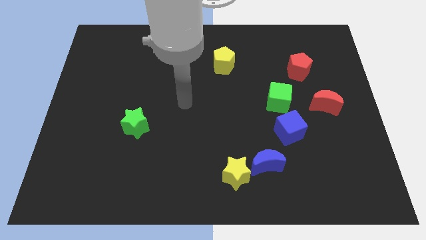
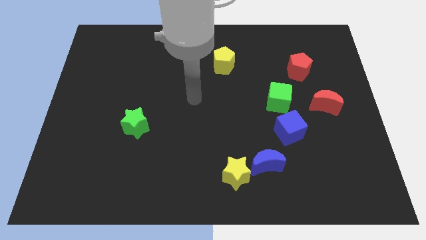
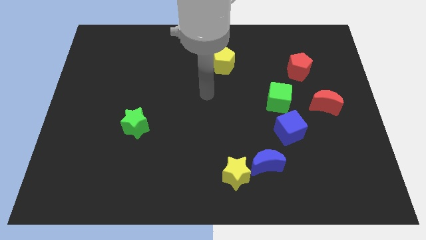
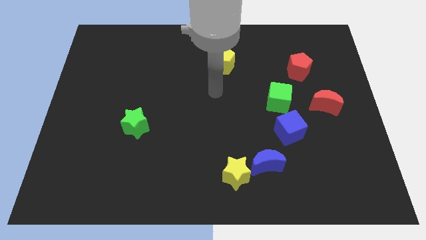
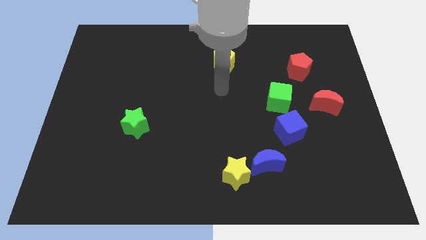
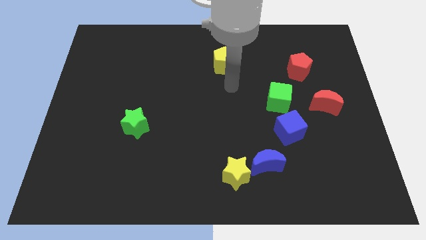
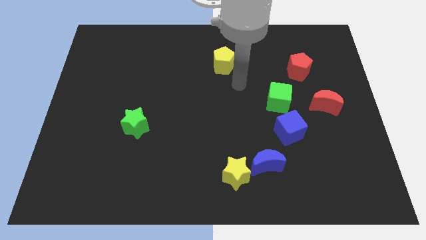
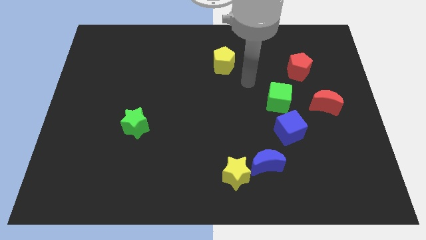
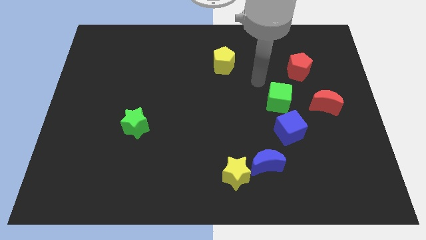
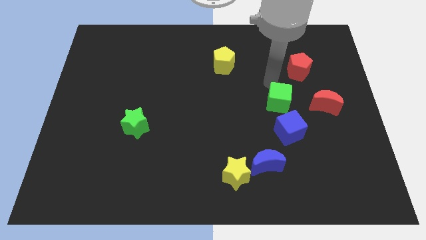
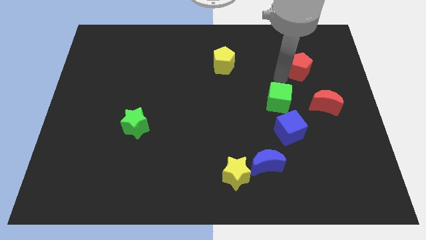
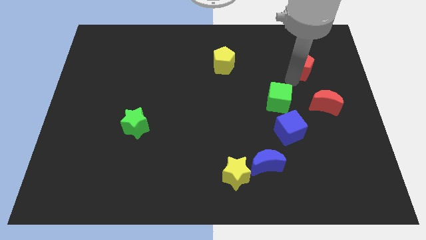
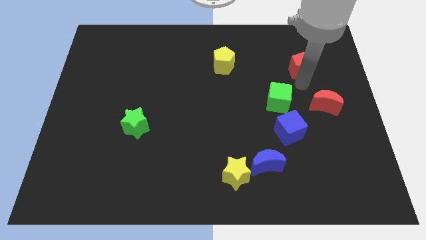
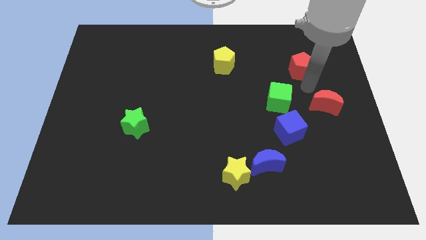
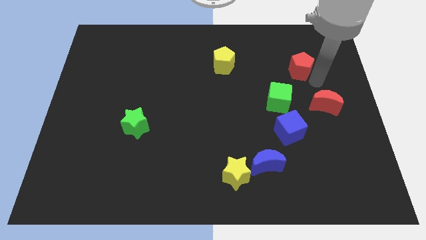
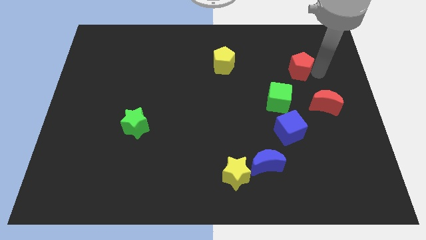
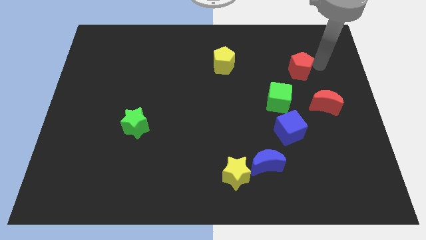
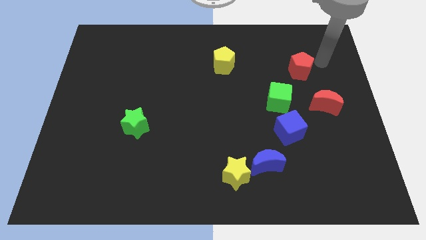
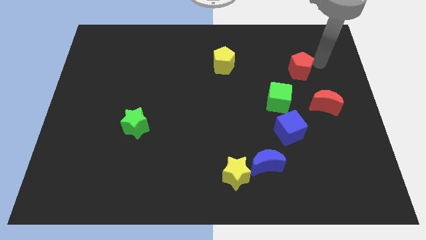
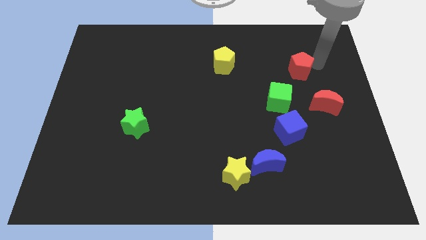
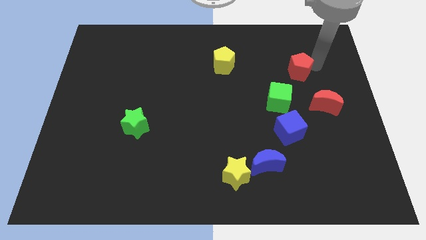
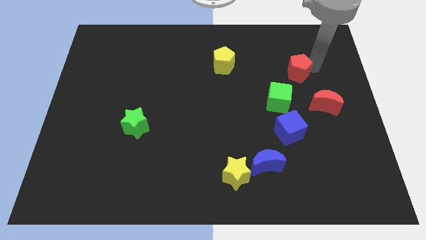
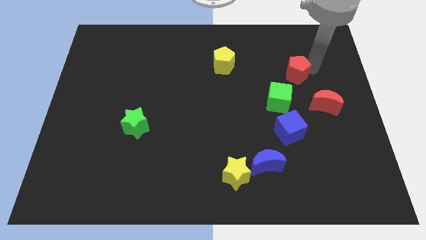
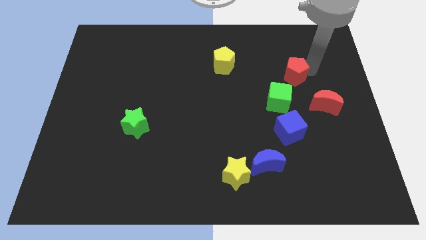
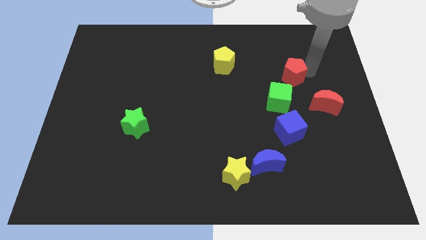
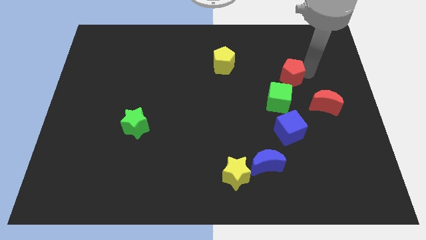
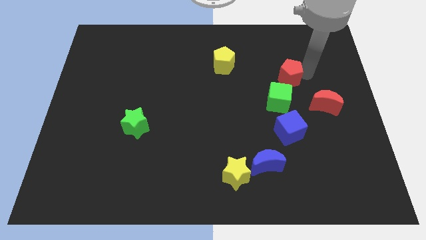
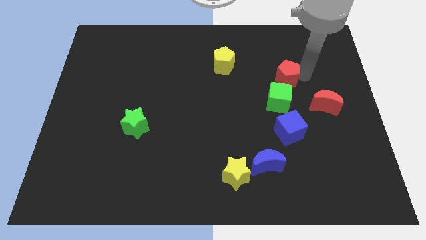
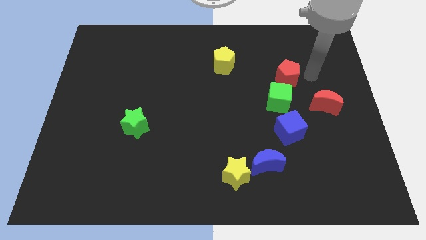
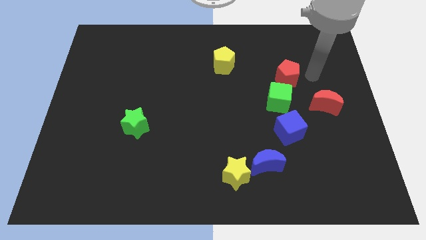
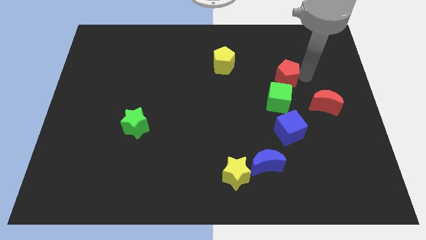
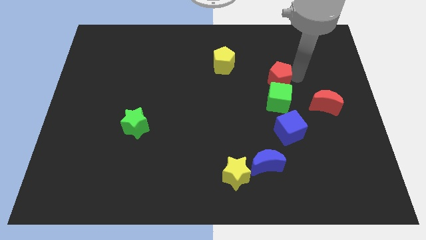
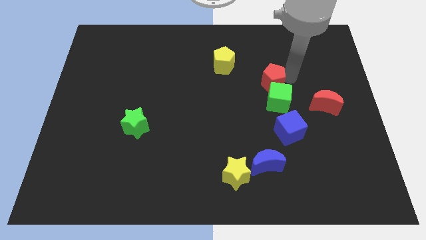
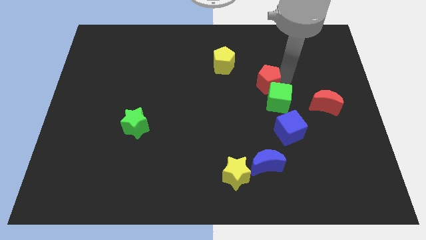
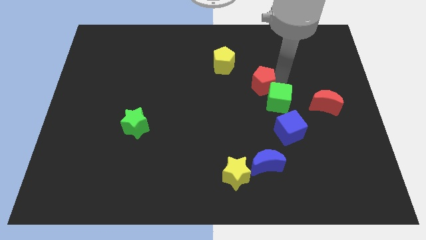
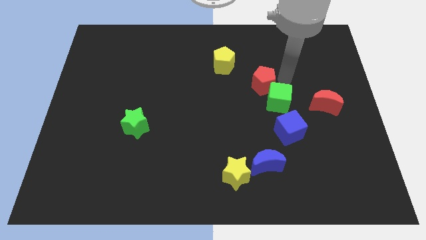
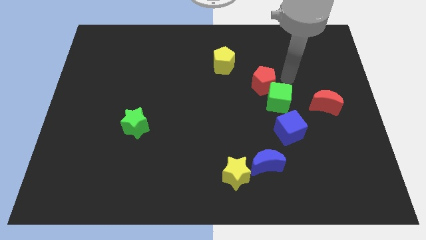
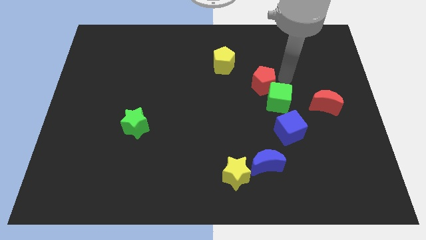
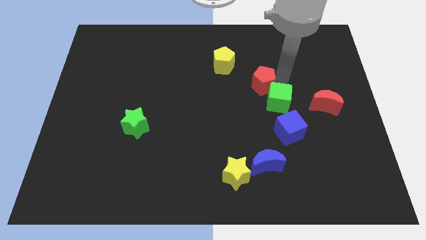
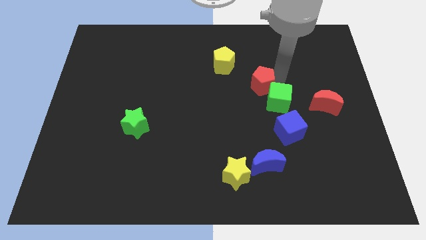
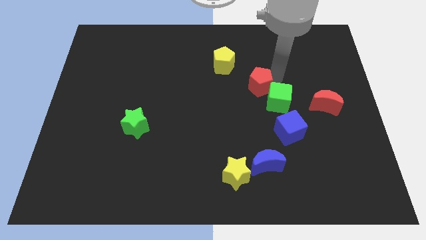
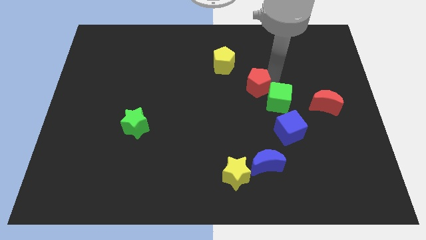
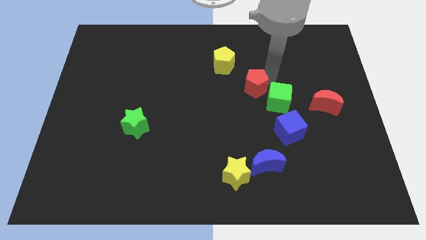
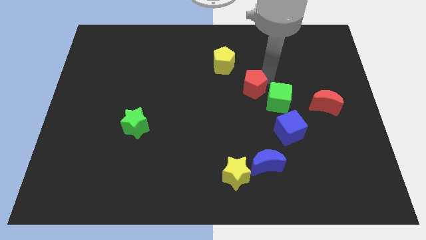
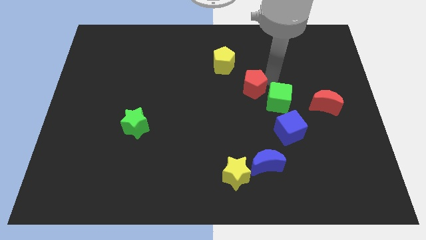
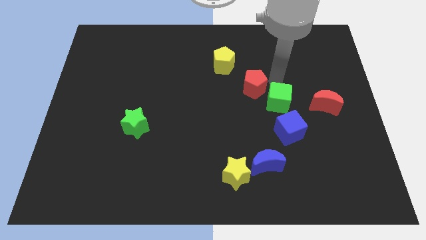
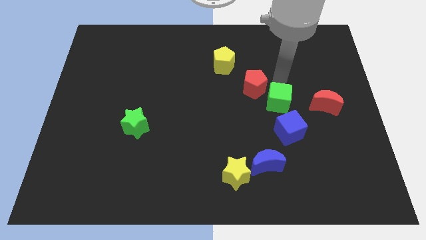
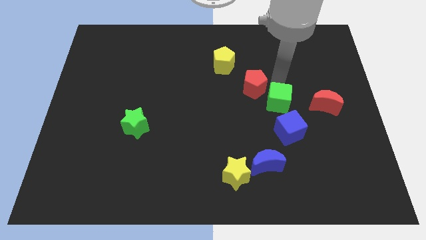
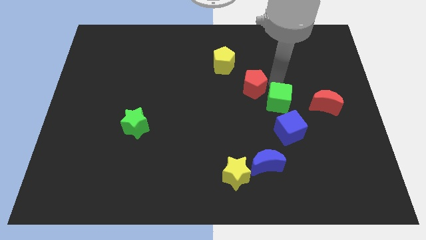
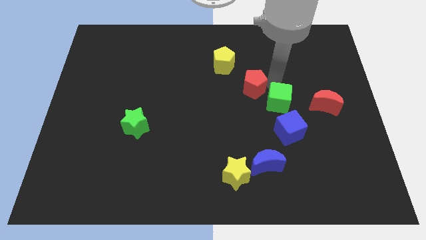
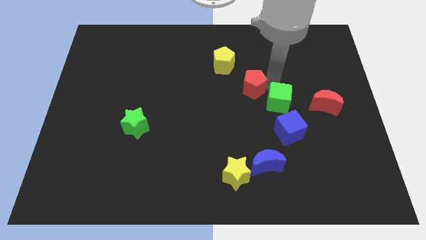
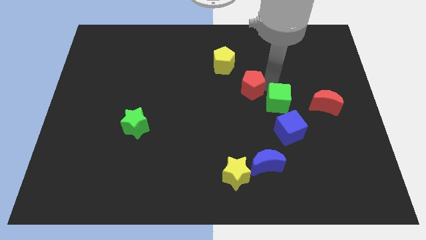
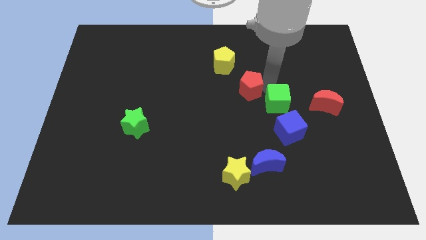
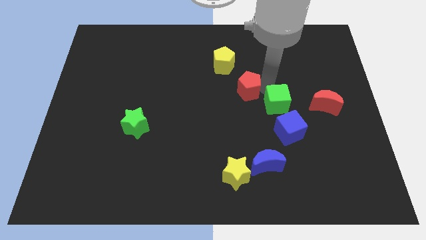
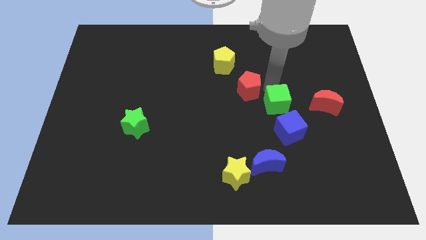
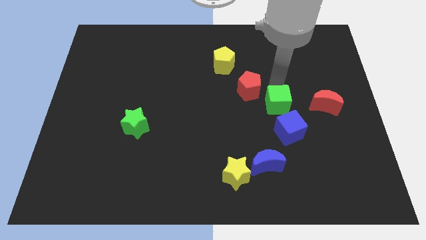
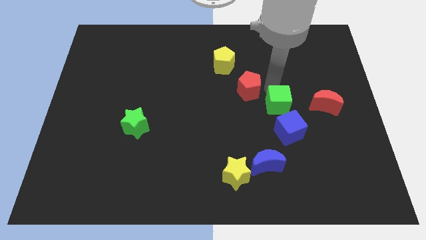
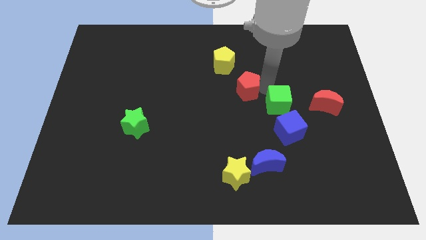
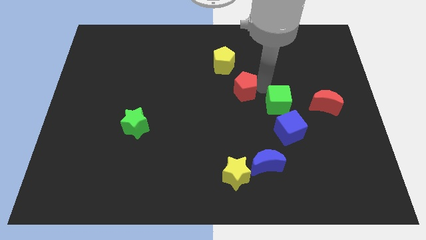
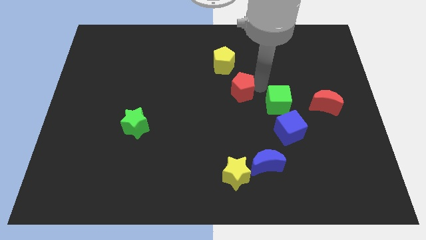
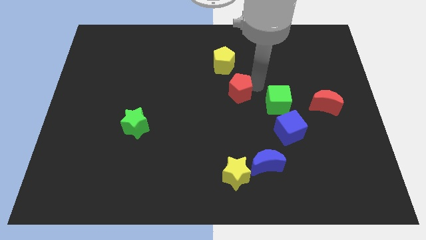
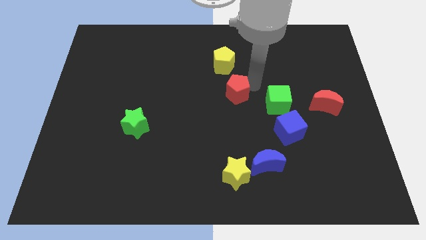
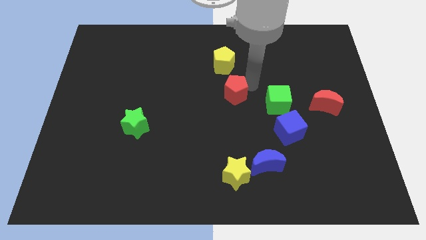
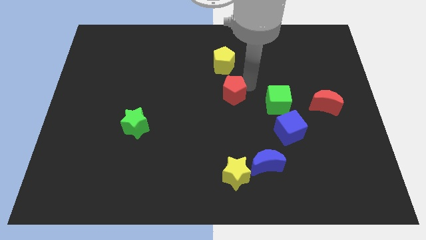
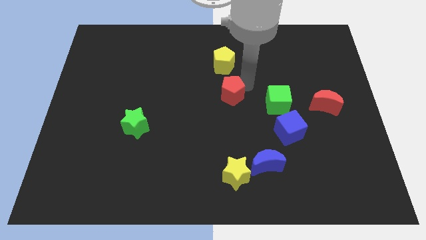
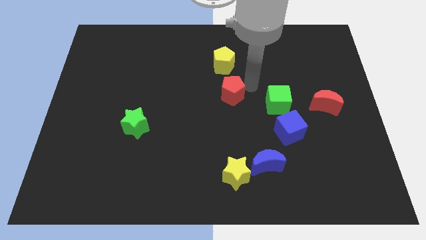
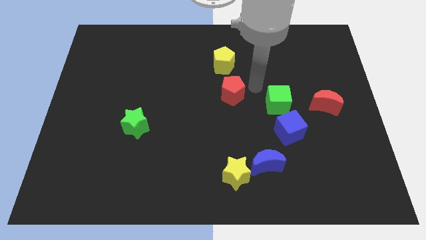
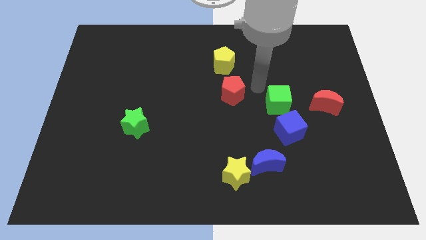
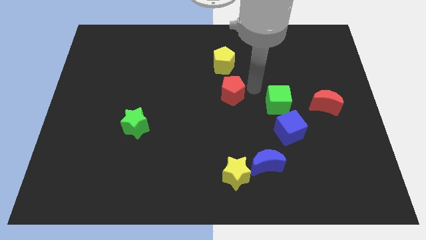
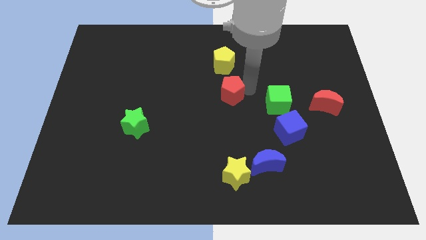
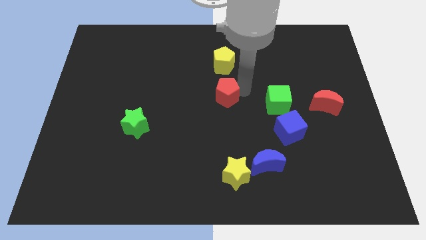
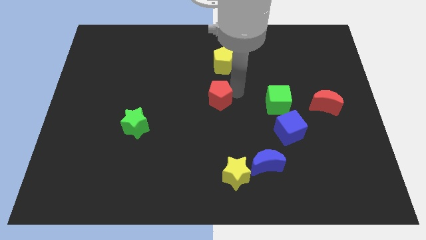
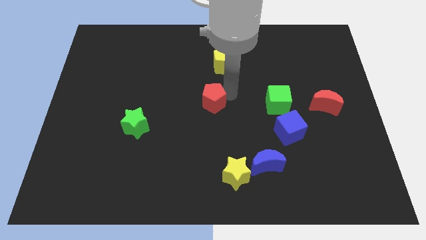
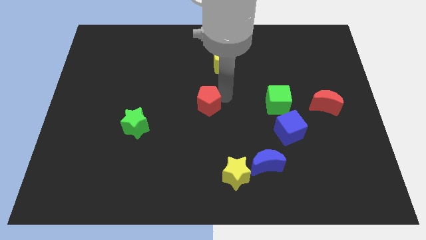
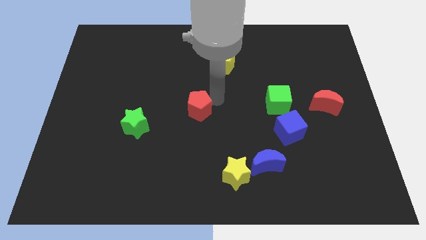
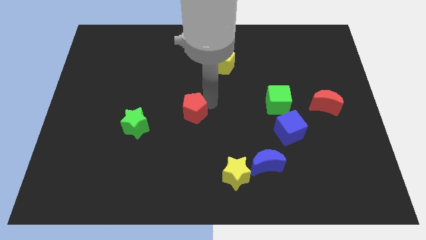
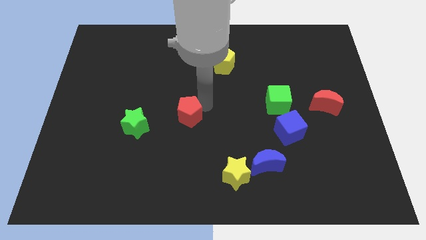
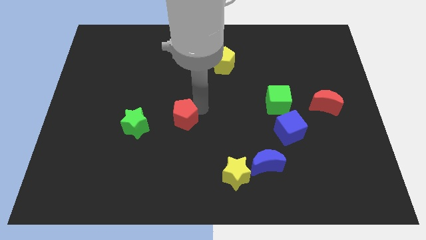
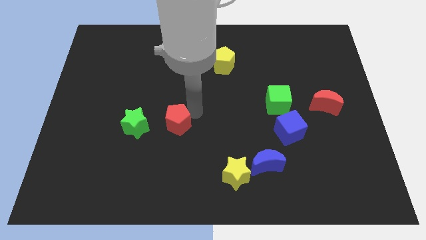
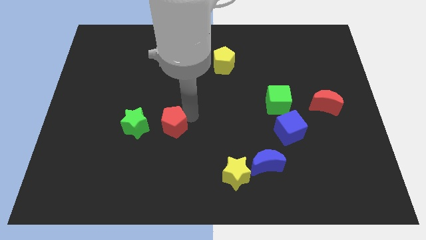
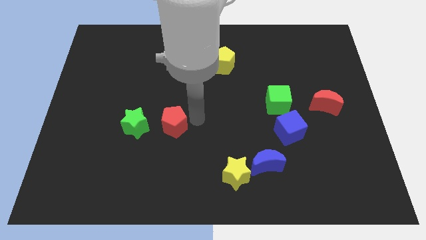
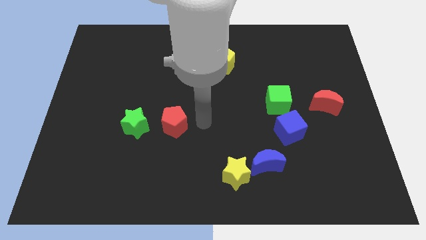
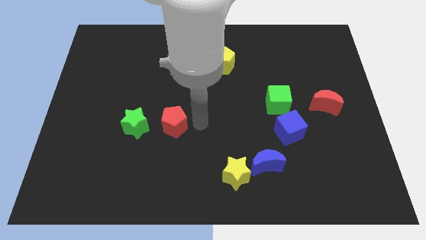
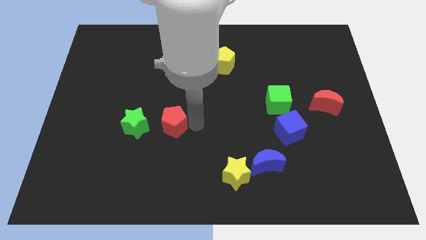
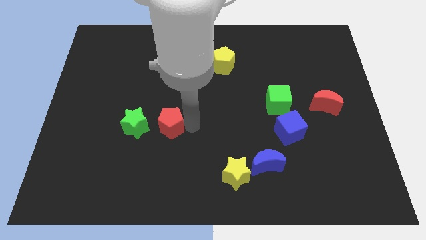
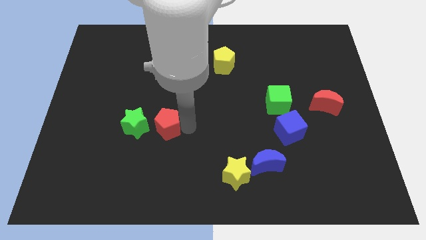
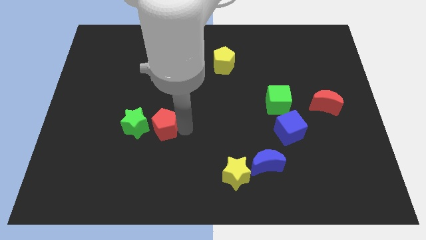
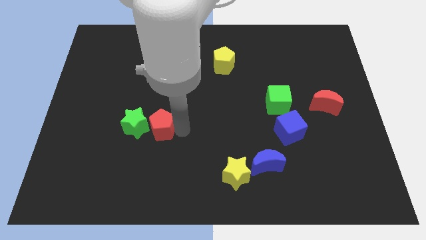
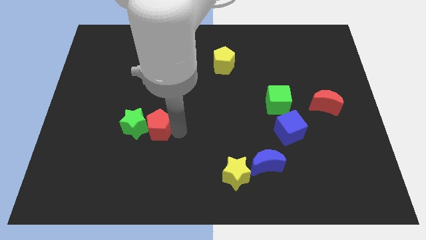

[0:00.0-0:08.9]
slide the red pentagon next to the green star
